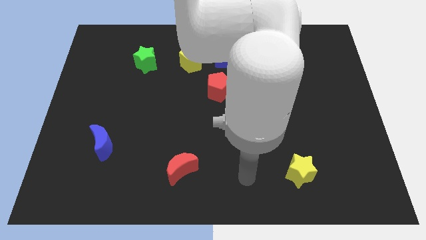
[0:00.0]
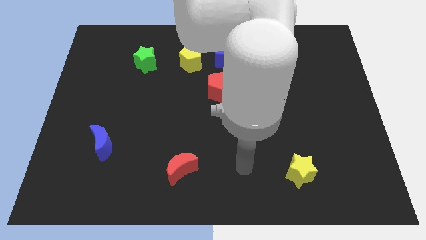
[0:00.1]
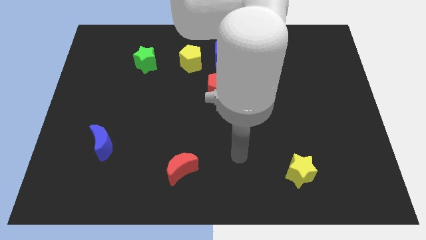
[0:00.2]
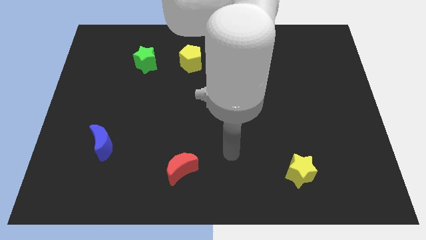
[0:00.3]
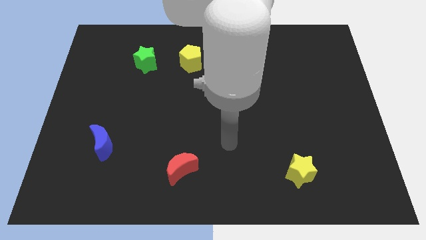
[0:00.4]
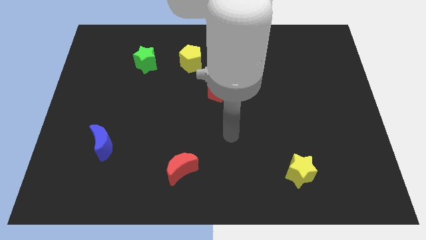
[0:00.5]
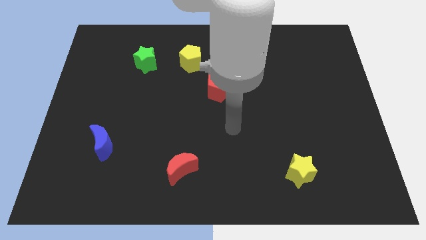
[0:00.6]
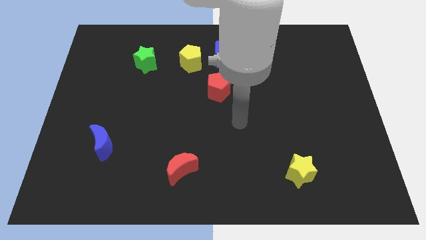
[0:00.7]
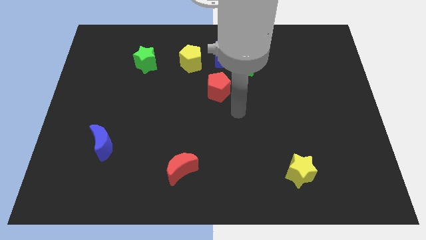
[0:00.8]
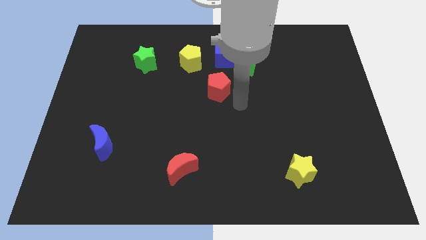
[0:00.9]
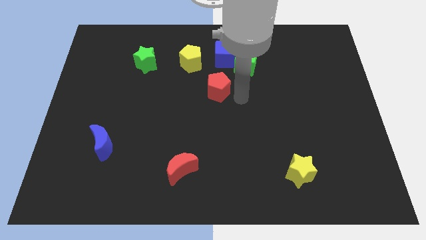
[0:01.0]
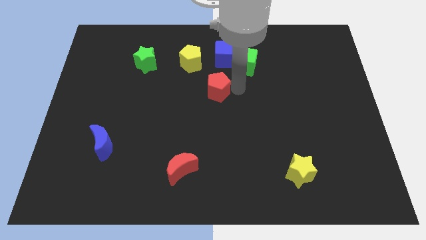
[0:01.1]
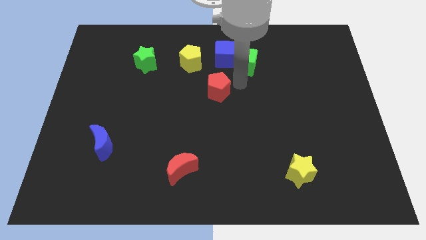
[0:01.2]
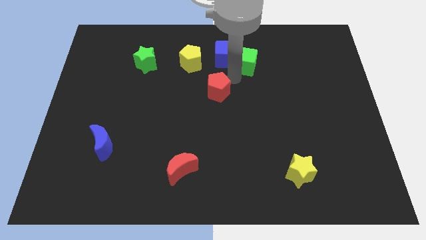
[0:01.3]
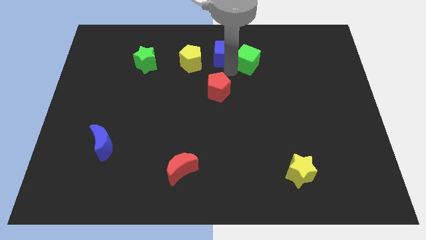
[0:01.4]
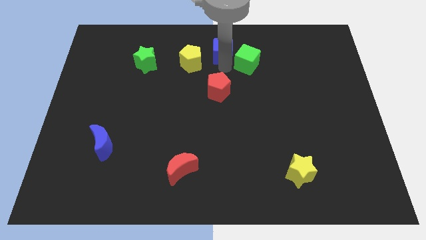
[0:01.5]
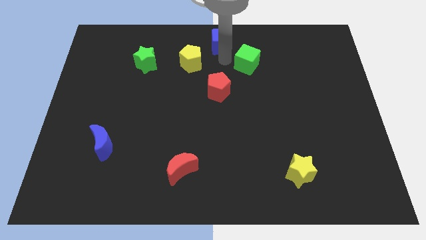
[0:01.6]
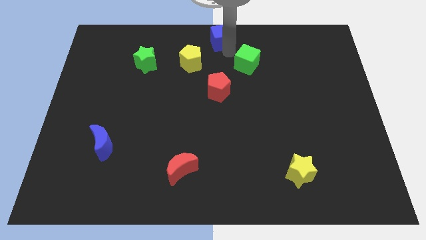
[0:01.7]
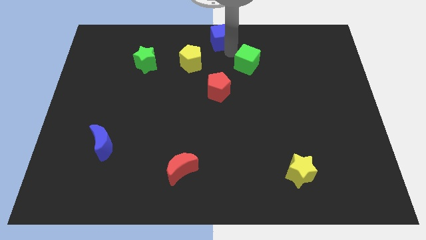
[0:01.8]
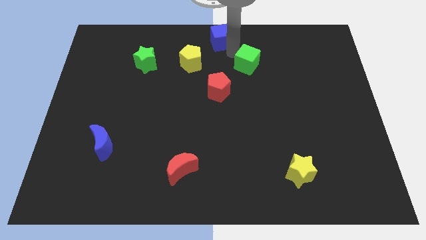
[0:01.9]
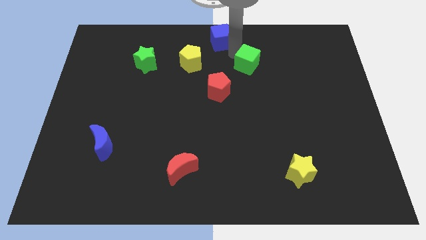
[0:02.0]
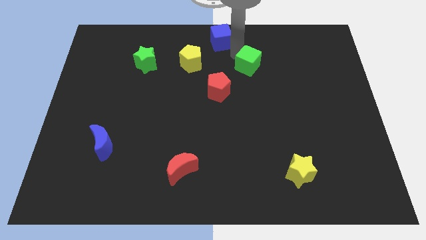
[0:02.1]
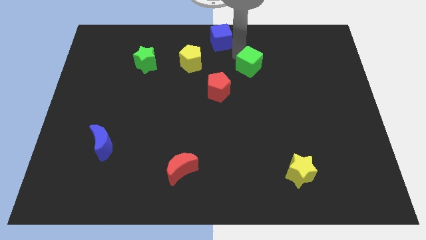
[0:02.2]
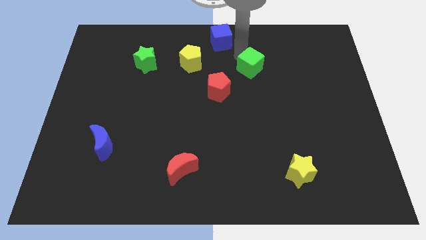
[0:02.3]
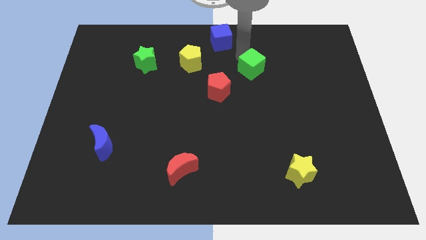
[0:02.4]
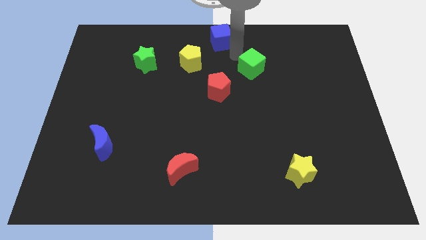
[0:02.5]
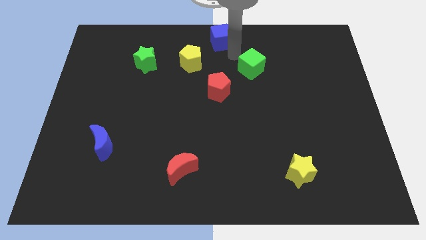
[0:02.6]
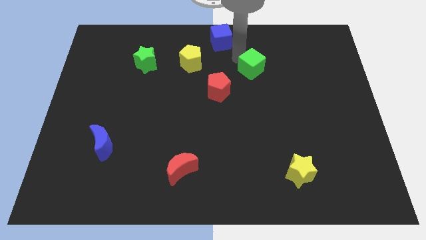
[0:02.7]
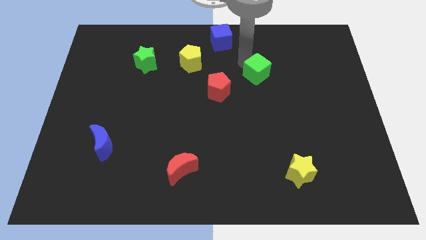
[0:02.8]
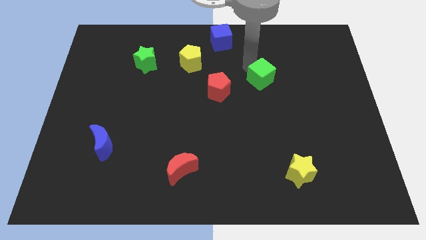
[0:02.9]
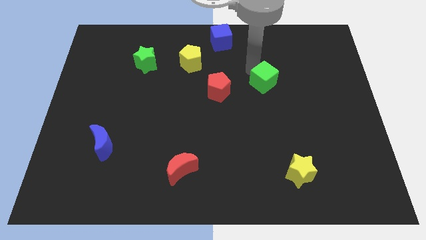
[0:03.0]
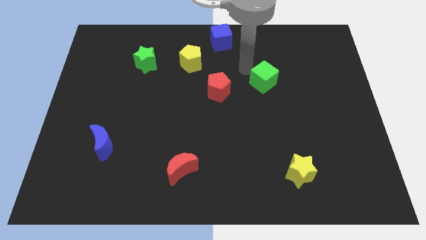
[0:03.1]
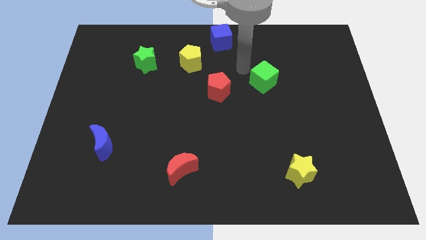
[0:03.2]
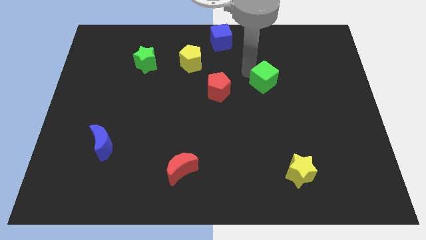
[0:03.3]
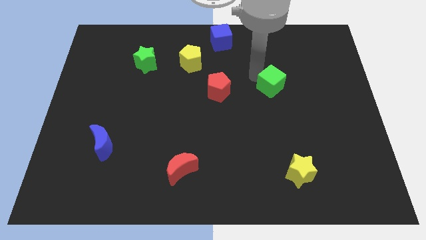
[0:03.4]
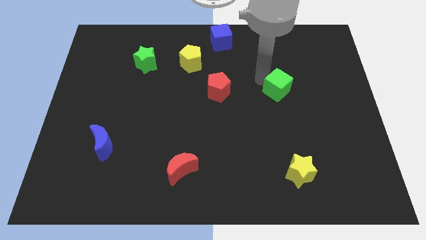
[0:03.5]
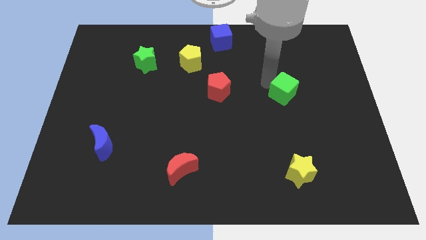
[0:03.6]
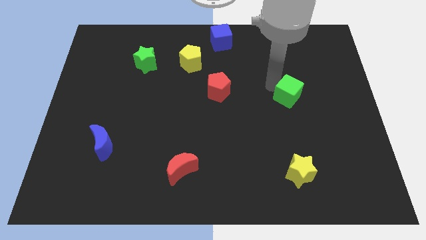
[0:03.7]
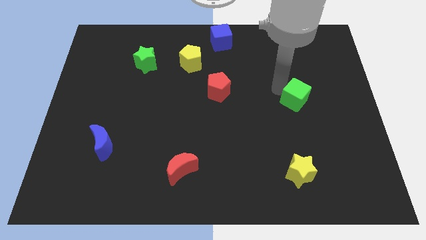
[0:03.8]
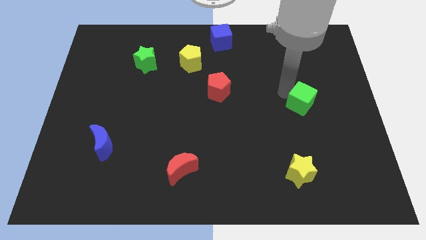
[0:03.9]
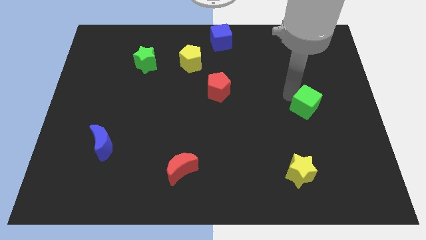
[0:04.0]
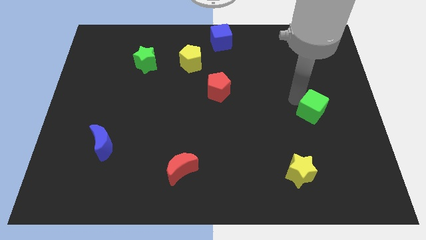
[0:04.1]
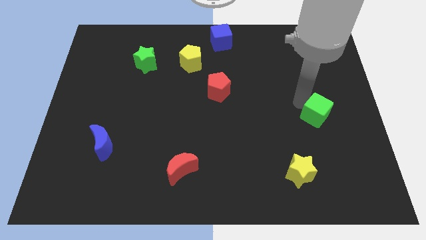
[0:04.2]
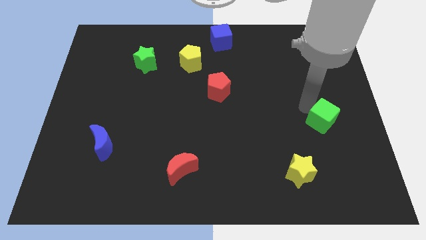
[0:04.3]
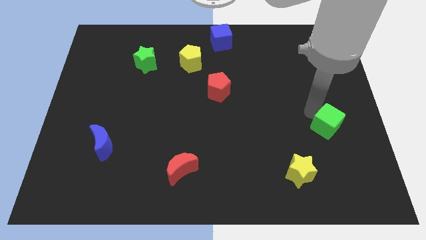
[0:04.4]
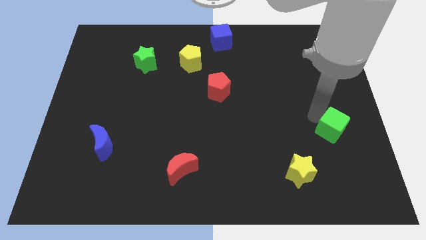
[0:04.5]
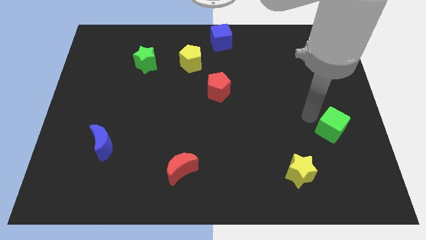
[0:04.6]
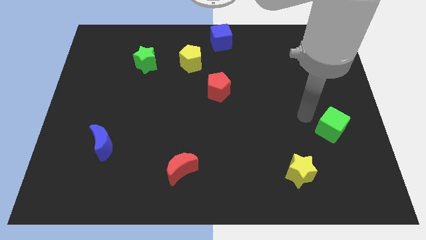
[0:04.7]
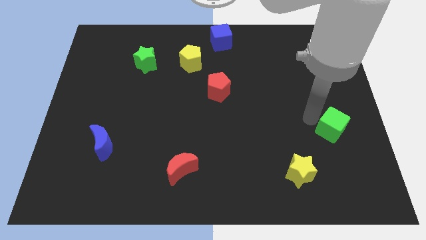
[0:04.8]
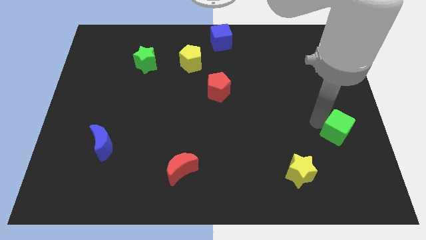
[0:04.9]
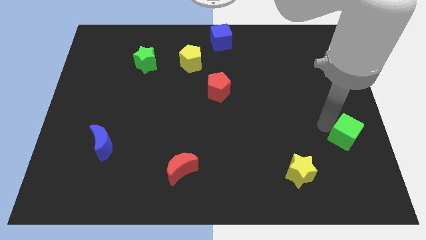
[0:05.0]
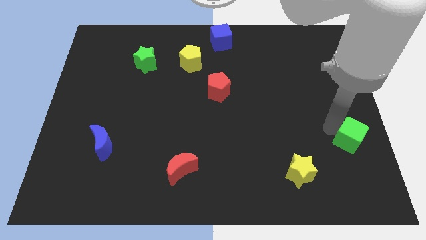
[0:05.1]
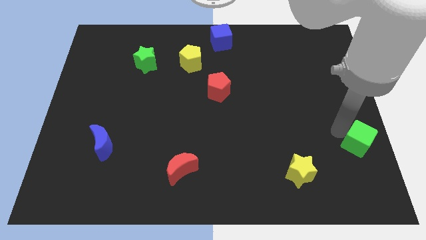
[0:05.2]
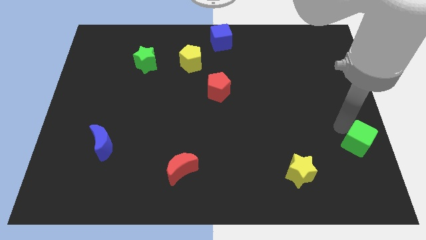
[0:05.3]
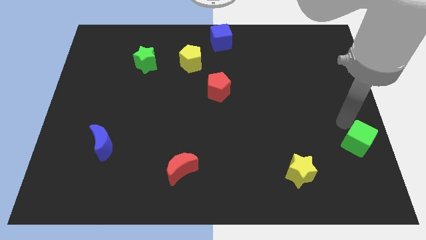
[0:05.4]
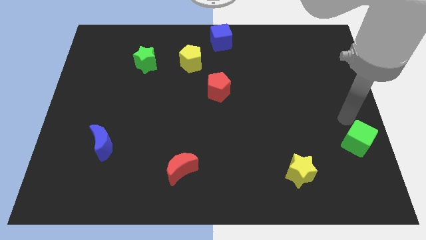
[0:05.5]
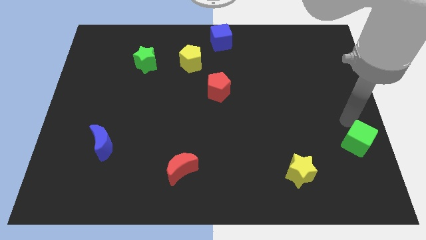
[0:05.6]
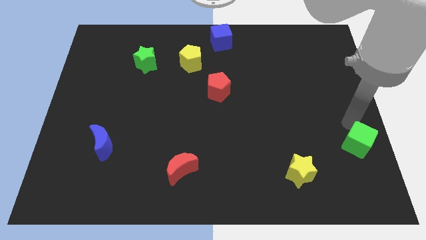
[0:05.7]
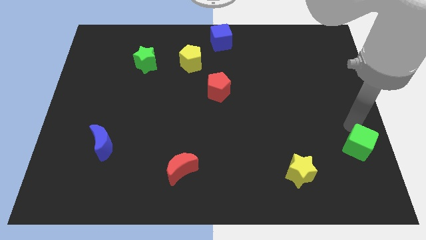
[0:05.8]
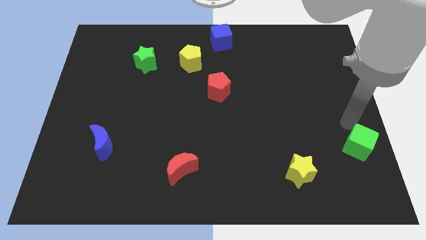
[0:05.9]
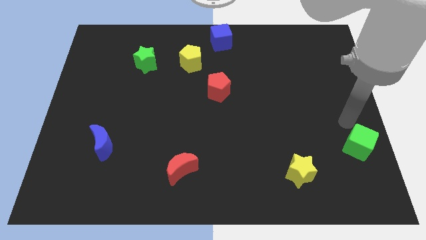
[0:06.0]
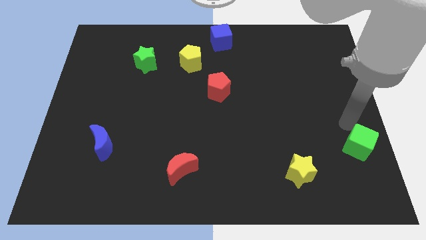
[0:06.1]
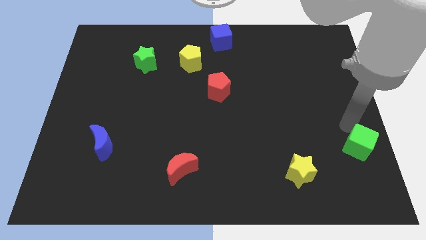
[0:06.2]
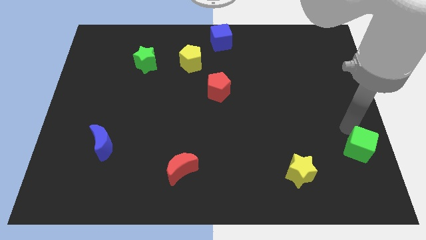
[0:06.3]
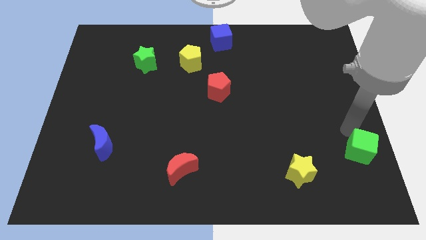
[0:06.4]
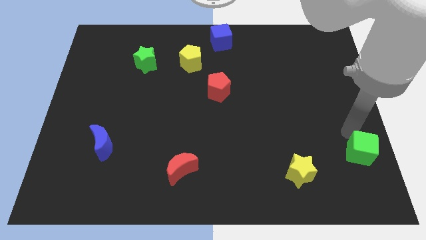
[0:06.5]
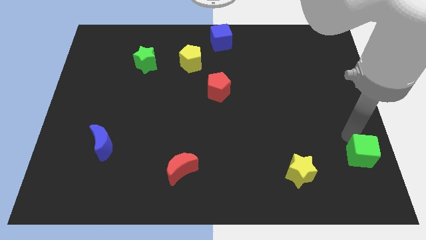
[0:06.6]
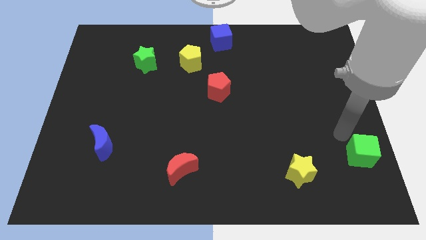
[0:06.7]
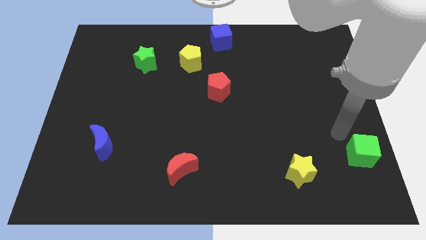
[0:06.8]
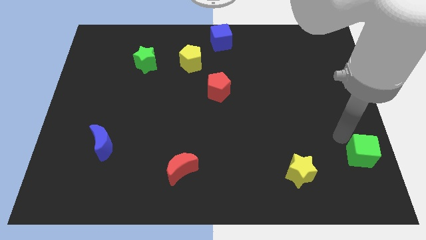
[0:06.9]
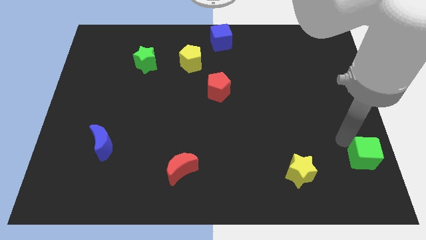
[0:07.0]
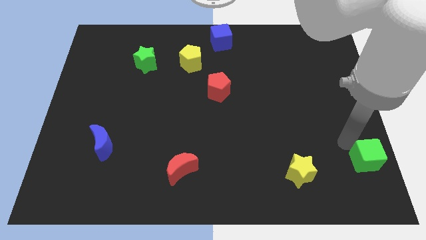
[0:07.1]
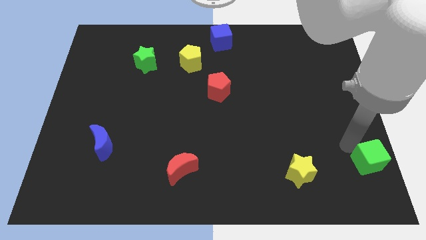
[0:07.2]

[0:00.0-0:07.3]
slide the green cube to the bottom right

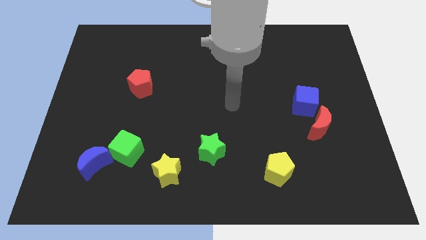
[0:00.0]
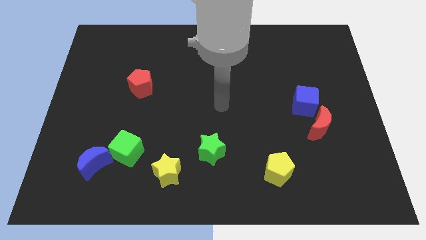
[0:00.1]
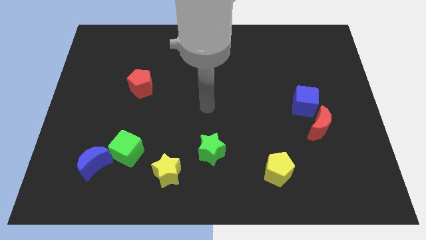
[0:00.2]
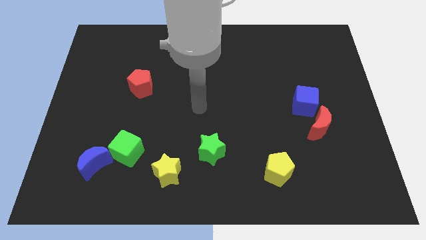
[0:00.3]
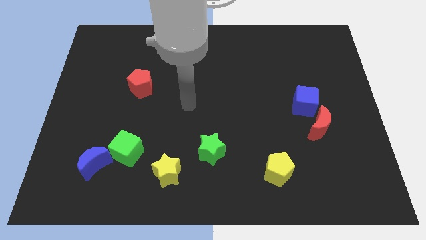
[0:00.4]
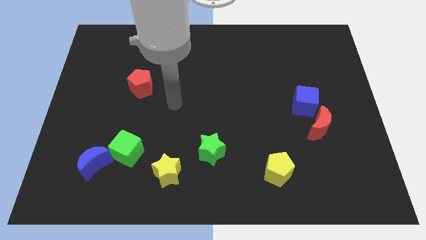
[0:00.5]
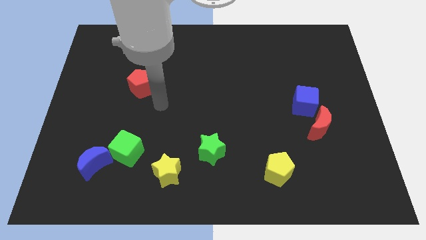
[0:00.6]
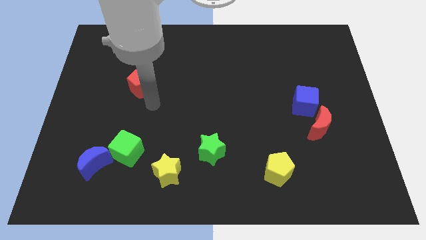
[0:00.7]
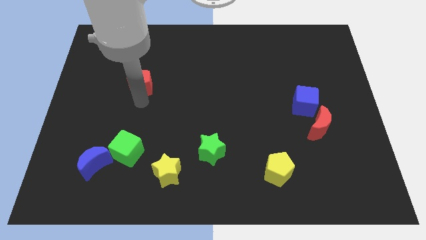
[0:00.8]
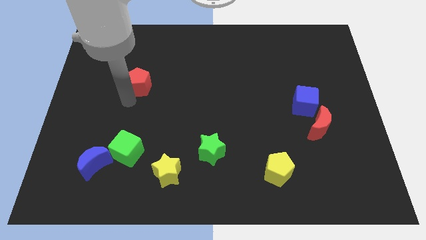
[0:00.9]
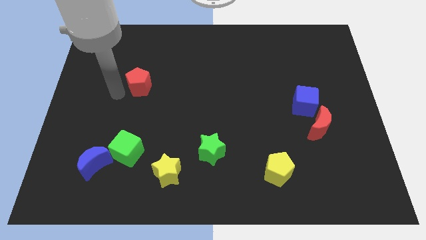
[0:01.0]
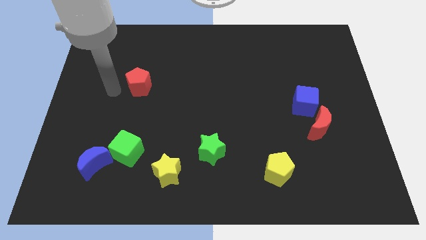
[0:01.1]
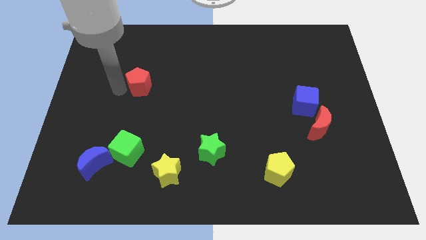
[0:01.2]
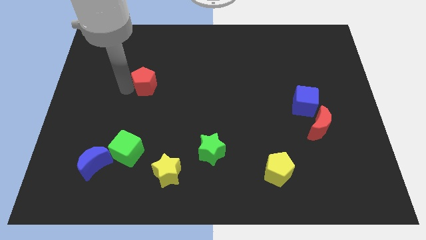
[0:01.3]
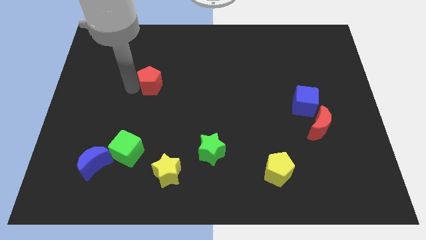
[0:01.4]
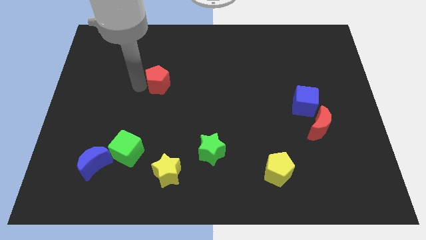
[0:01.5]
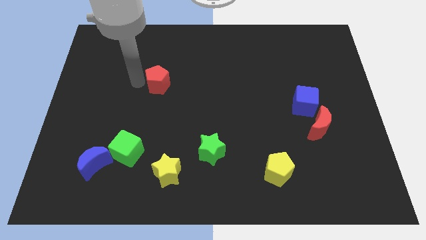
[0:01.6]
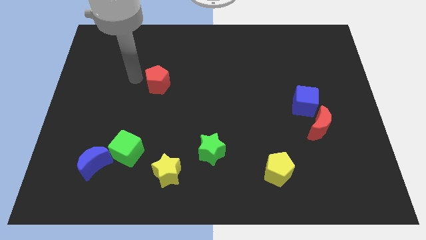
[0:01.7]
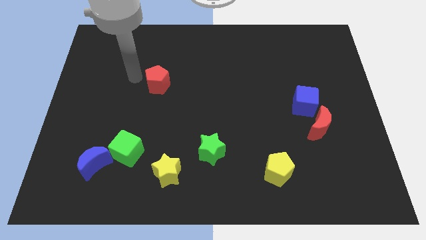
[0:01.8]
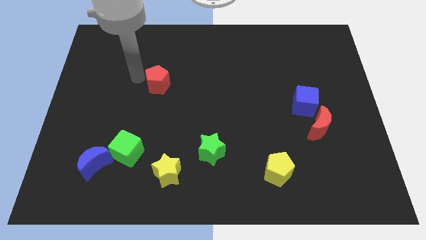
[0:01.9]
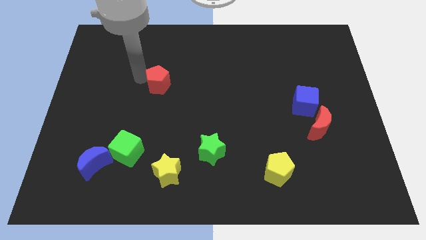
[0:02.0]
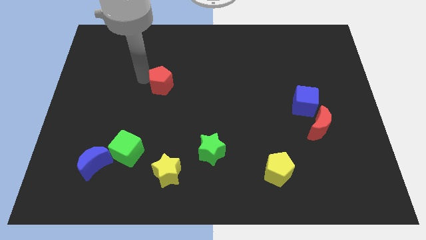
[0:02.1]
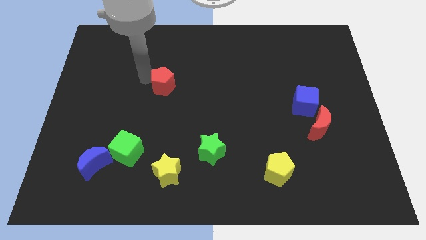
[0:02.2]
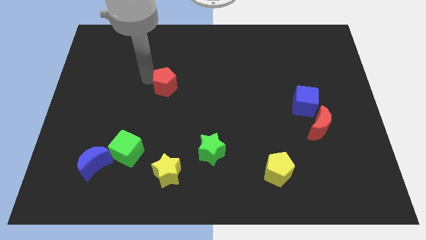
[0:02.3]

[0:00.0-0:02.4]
move the red pentagon to the center
